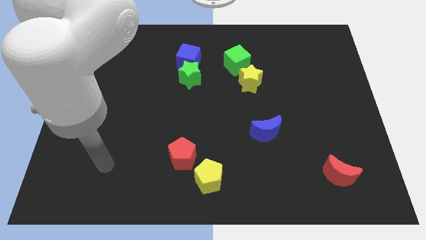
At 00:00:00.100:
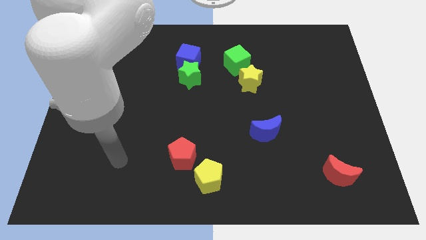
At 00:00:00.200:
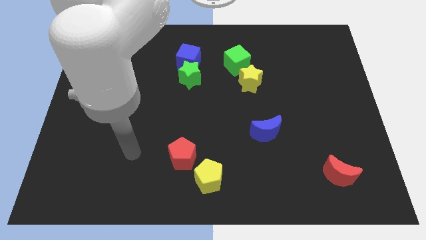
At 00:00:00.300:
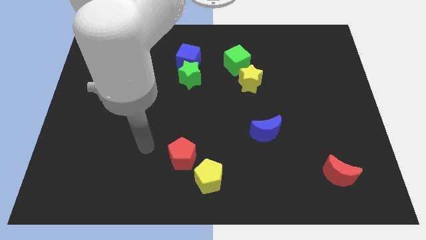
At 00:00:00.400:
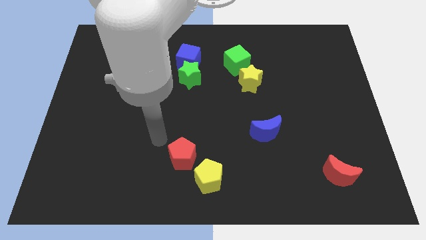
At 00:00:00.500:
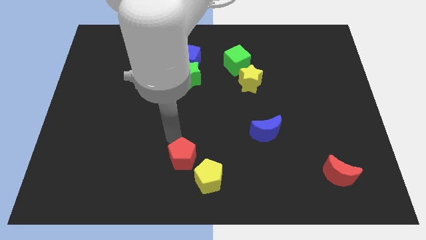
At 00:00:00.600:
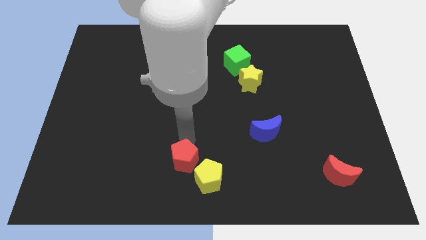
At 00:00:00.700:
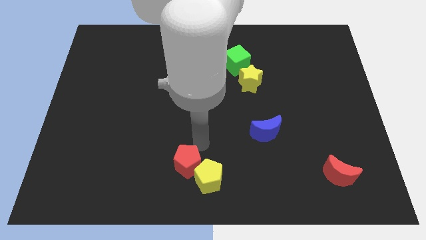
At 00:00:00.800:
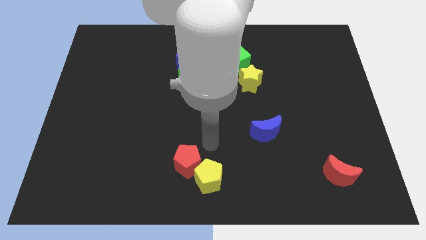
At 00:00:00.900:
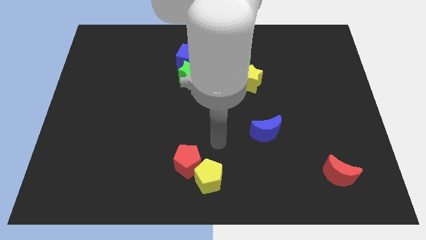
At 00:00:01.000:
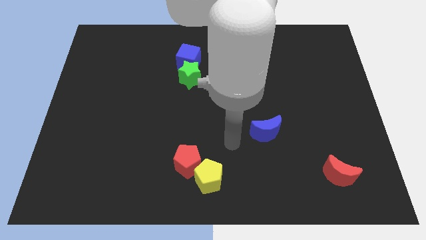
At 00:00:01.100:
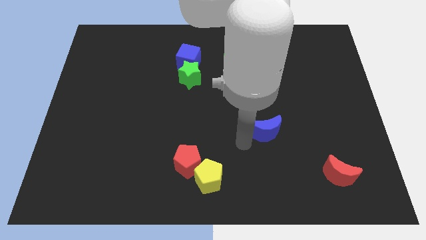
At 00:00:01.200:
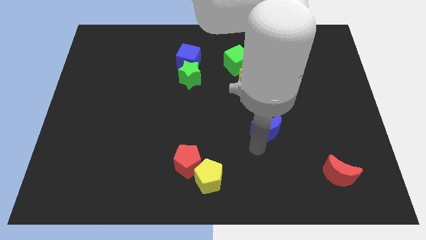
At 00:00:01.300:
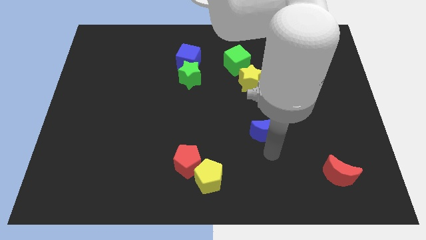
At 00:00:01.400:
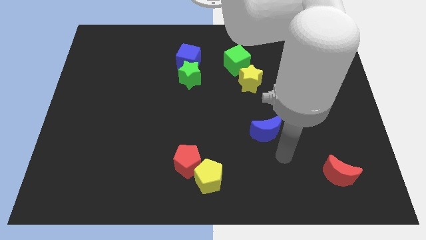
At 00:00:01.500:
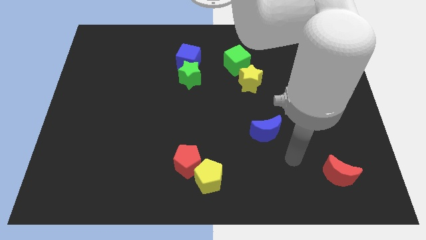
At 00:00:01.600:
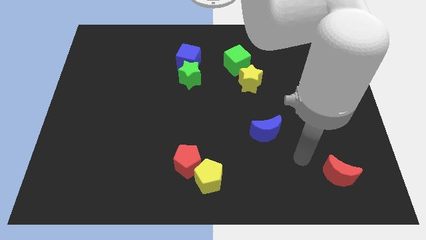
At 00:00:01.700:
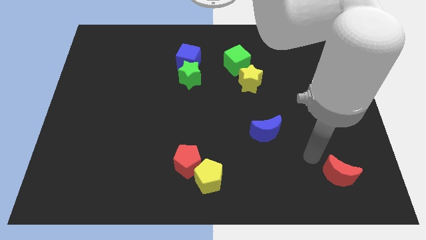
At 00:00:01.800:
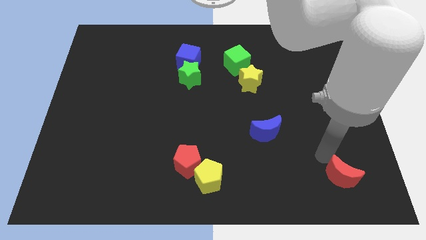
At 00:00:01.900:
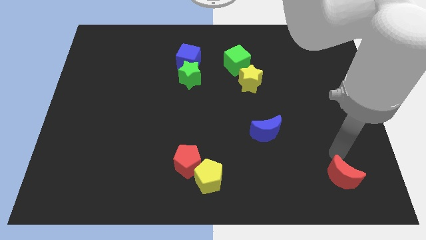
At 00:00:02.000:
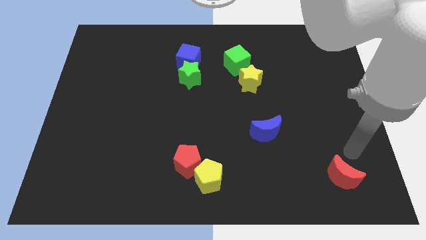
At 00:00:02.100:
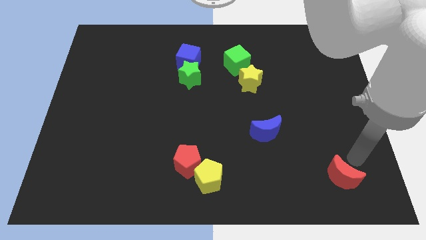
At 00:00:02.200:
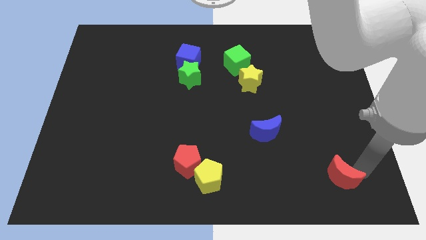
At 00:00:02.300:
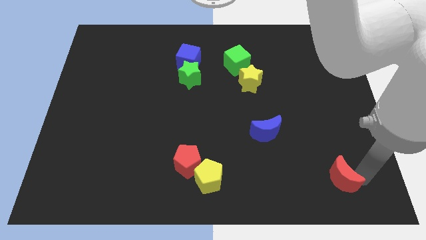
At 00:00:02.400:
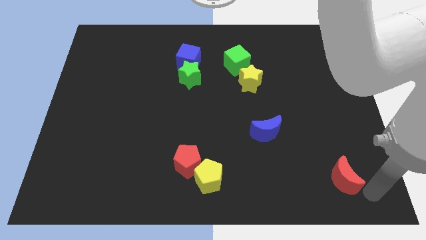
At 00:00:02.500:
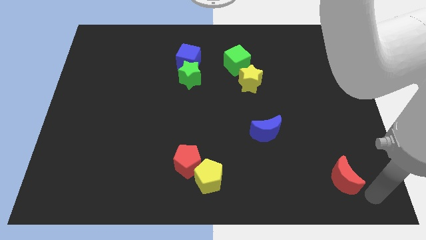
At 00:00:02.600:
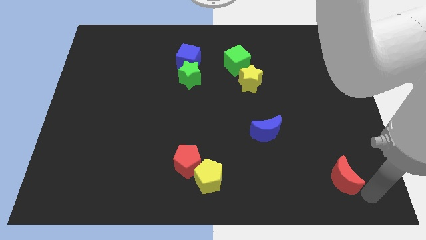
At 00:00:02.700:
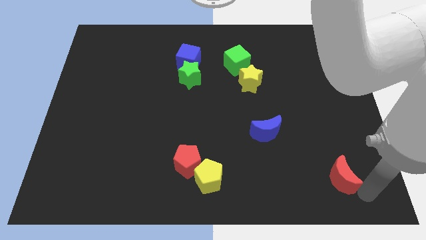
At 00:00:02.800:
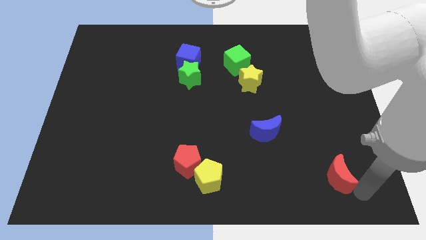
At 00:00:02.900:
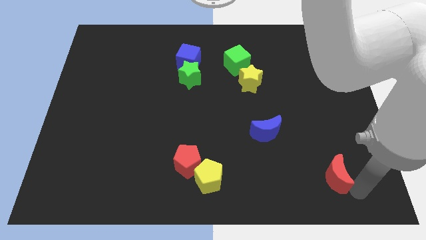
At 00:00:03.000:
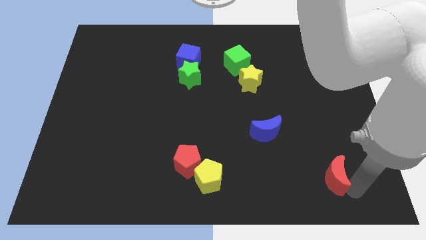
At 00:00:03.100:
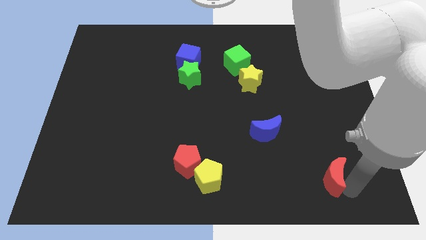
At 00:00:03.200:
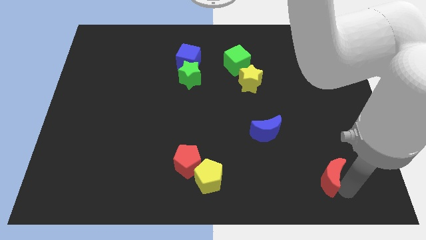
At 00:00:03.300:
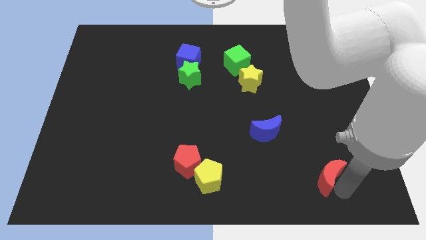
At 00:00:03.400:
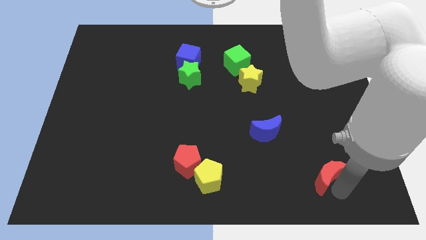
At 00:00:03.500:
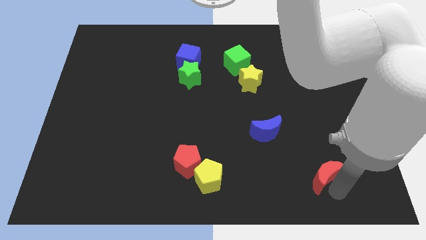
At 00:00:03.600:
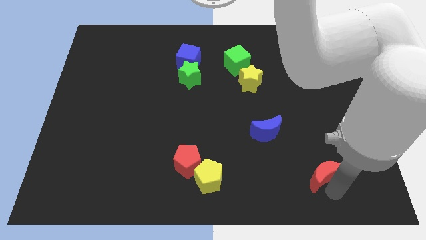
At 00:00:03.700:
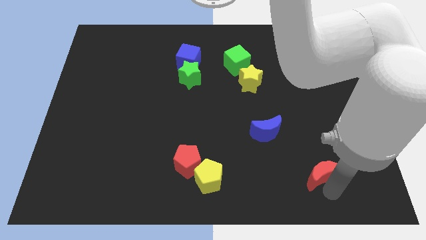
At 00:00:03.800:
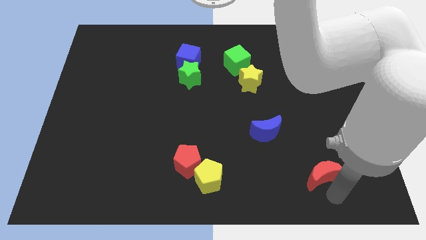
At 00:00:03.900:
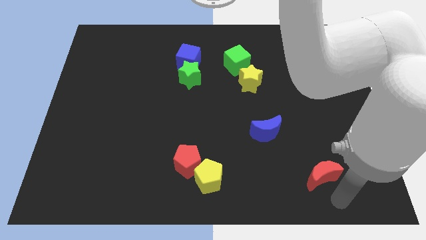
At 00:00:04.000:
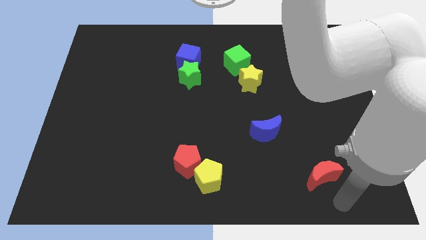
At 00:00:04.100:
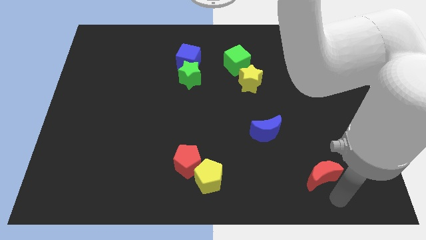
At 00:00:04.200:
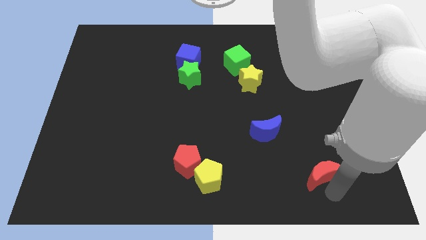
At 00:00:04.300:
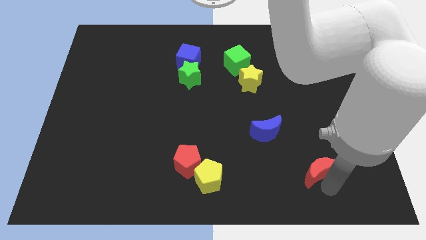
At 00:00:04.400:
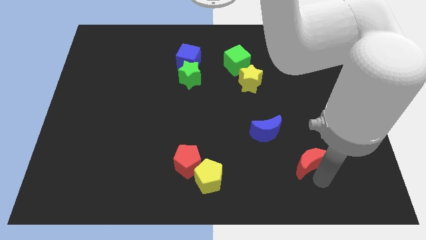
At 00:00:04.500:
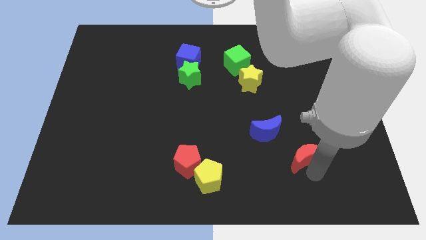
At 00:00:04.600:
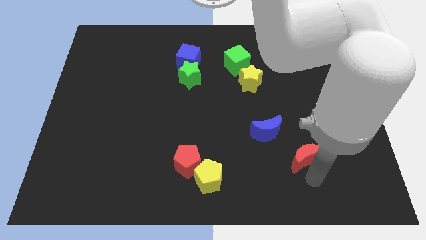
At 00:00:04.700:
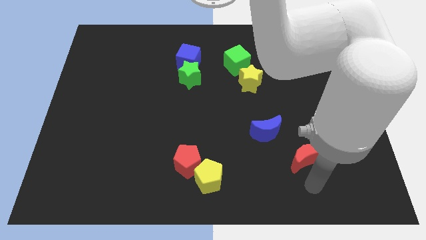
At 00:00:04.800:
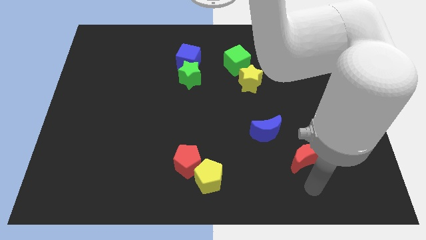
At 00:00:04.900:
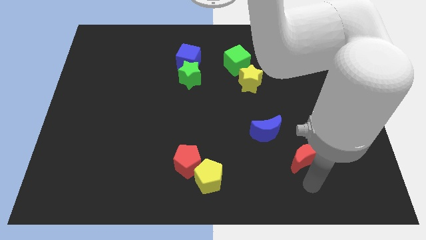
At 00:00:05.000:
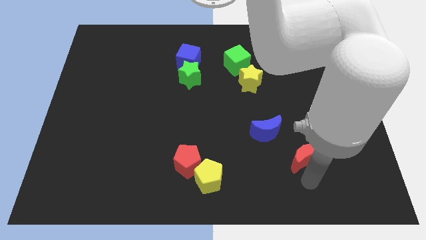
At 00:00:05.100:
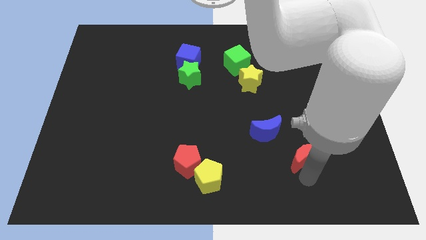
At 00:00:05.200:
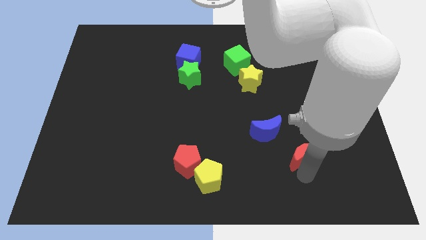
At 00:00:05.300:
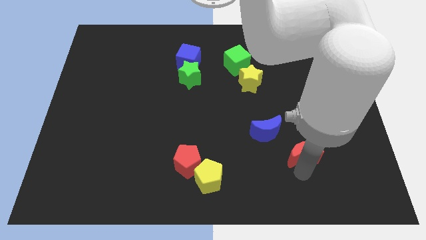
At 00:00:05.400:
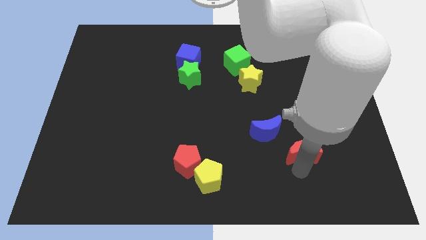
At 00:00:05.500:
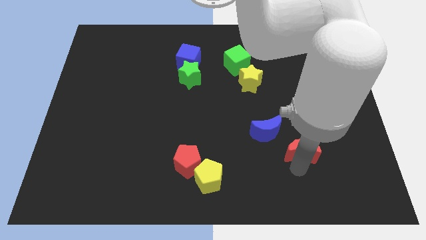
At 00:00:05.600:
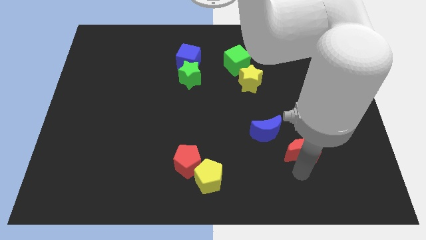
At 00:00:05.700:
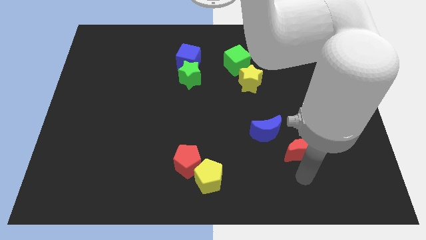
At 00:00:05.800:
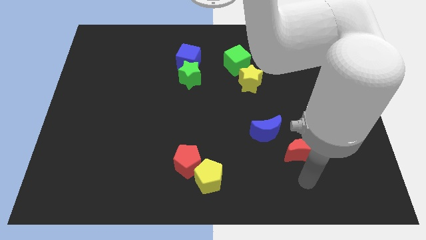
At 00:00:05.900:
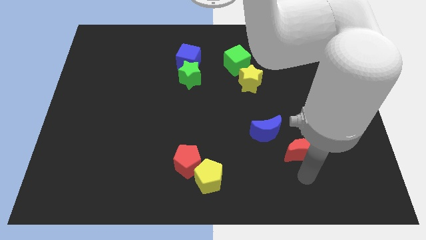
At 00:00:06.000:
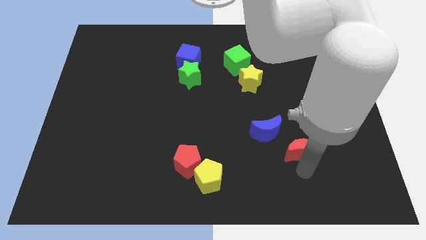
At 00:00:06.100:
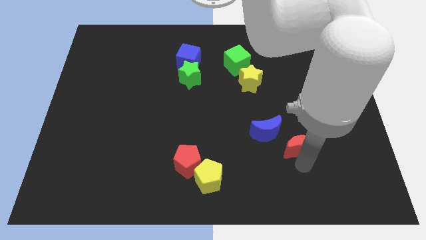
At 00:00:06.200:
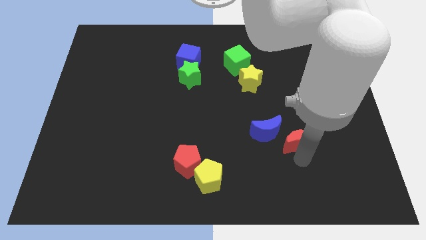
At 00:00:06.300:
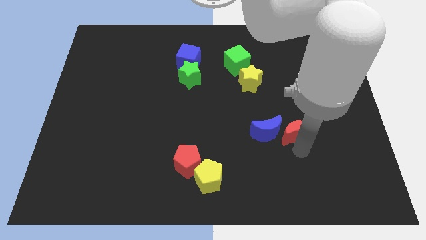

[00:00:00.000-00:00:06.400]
slide the red moon to the top right side of the blue moon

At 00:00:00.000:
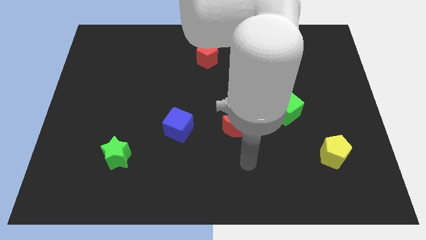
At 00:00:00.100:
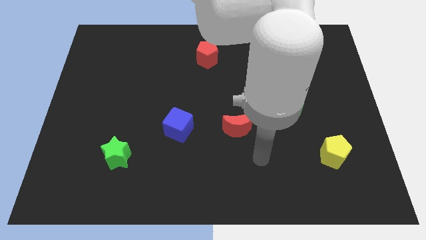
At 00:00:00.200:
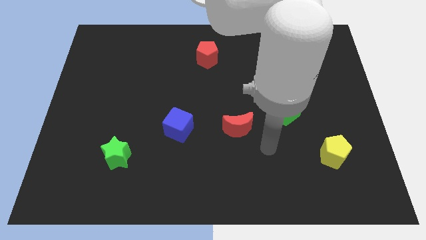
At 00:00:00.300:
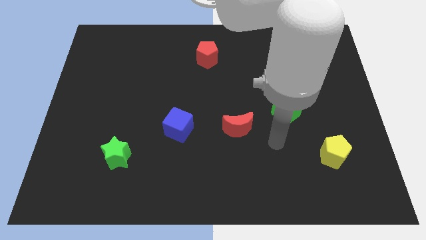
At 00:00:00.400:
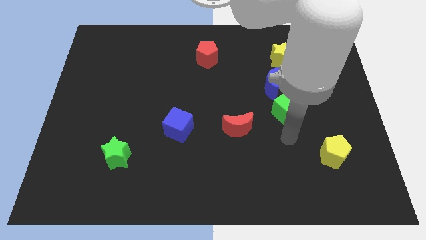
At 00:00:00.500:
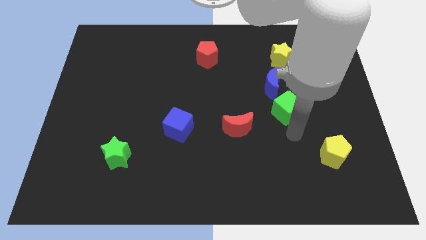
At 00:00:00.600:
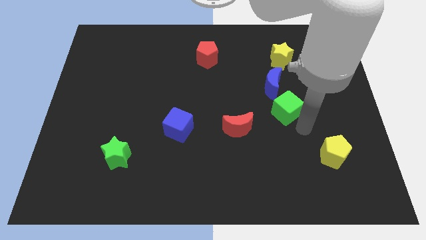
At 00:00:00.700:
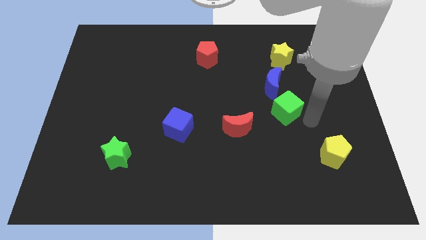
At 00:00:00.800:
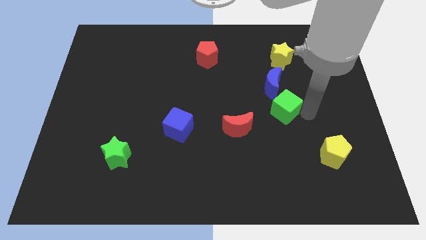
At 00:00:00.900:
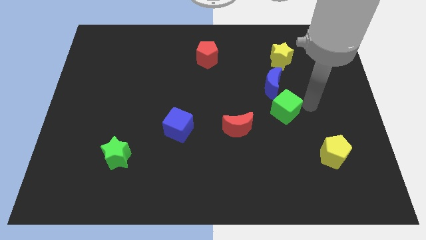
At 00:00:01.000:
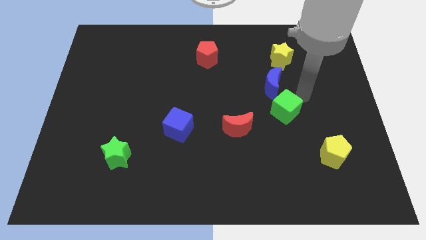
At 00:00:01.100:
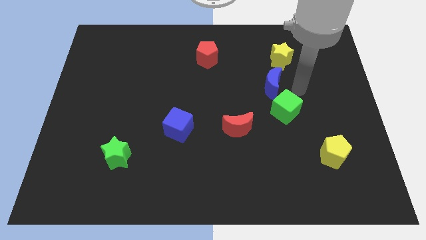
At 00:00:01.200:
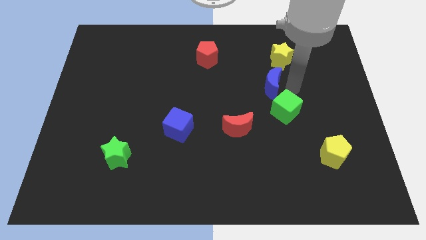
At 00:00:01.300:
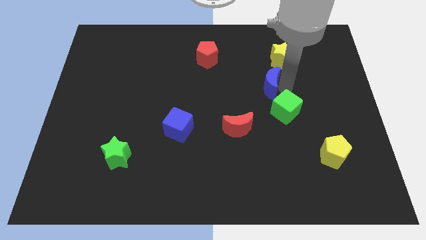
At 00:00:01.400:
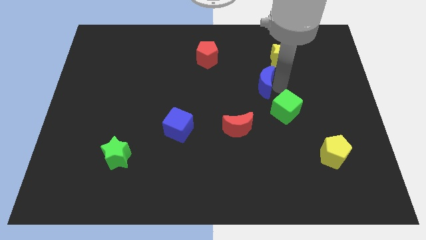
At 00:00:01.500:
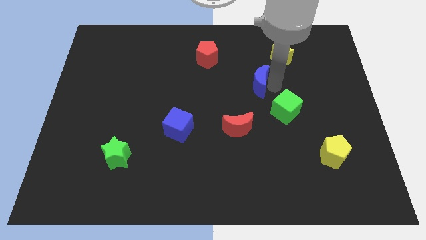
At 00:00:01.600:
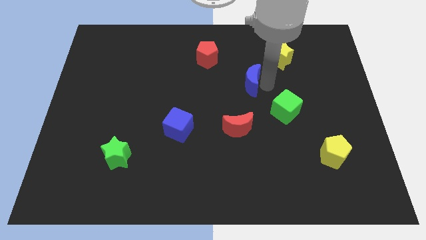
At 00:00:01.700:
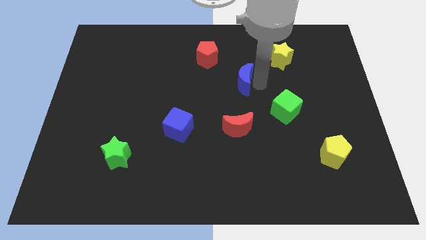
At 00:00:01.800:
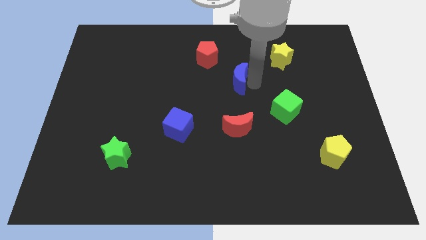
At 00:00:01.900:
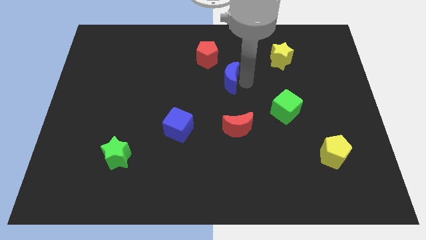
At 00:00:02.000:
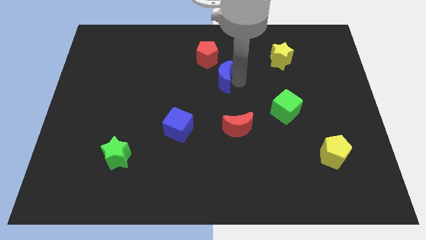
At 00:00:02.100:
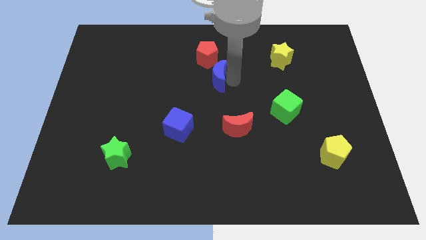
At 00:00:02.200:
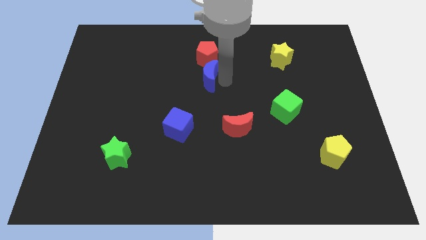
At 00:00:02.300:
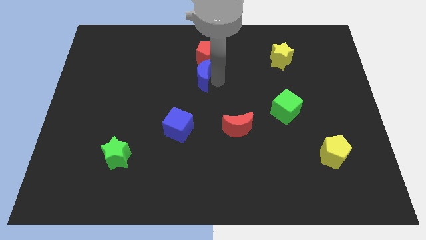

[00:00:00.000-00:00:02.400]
move the blue moon to the bottom left side of the red pentagon
